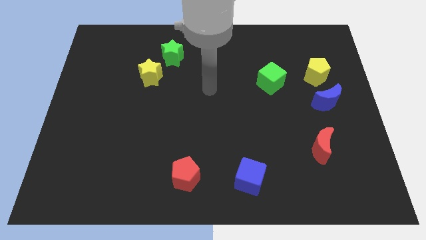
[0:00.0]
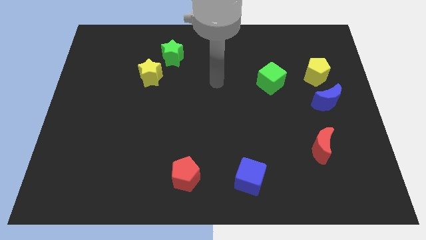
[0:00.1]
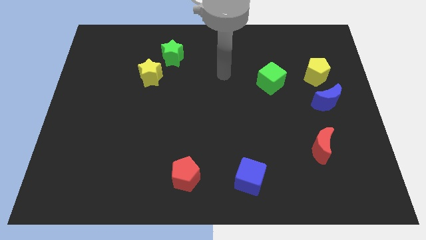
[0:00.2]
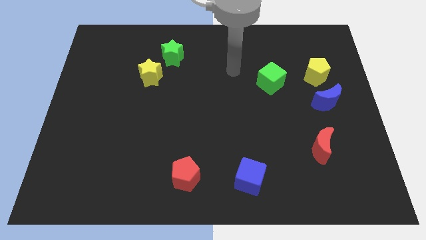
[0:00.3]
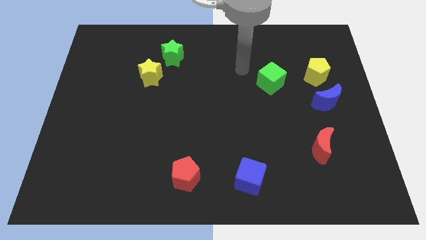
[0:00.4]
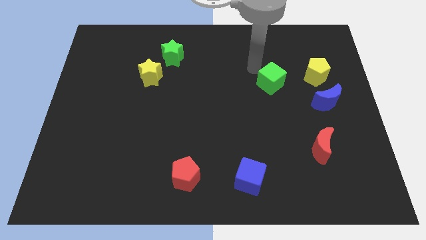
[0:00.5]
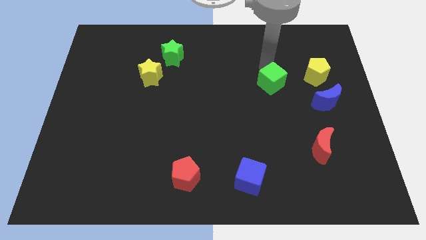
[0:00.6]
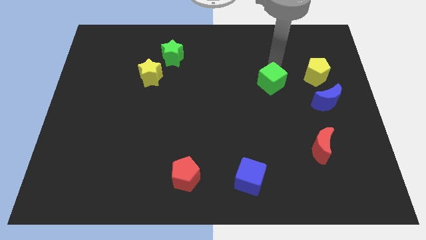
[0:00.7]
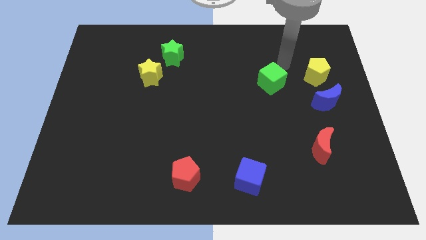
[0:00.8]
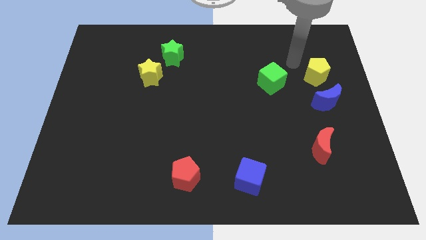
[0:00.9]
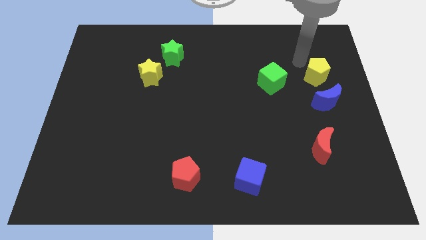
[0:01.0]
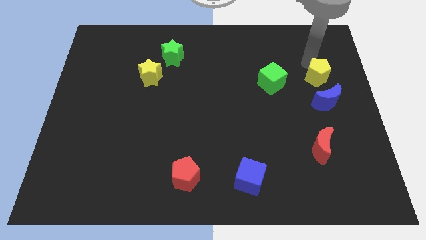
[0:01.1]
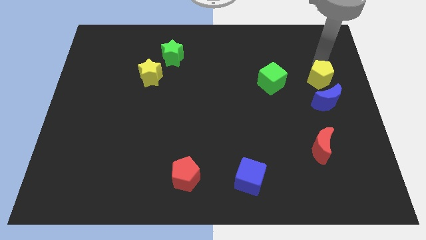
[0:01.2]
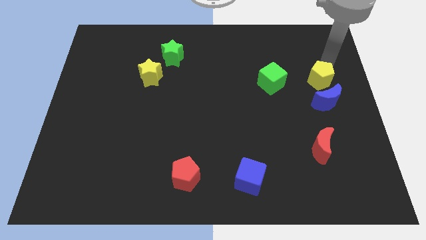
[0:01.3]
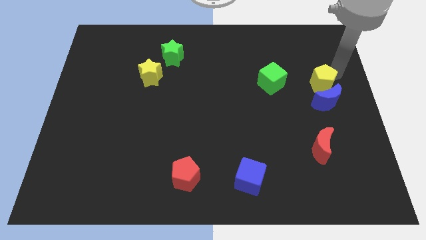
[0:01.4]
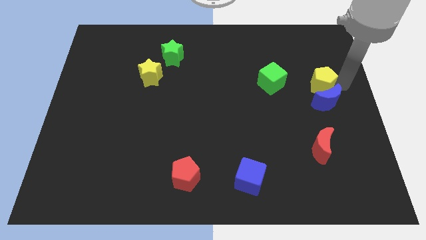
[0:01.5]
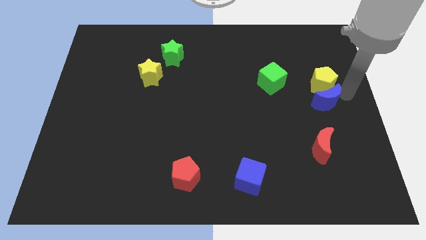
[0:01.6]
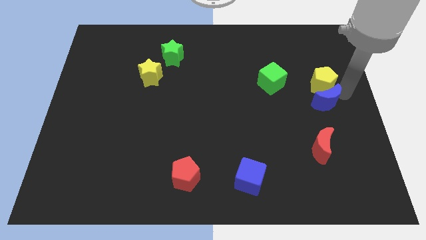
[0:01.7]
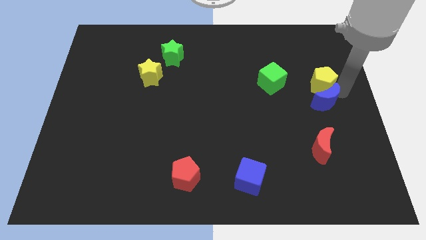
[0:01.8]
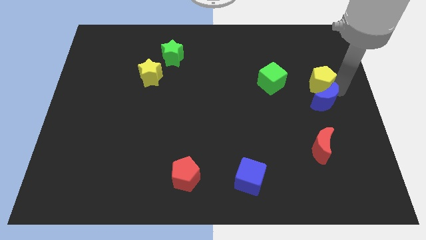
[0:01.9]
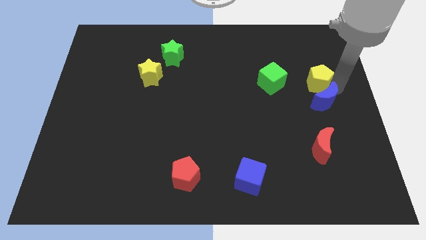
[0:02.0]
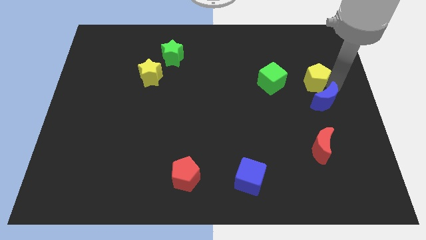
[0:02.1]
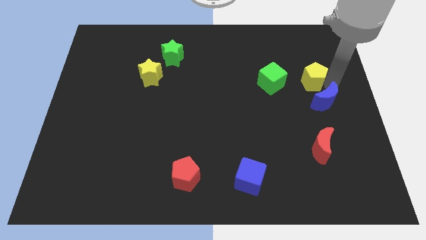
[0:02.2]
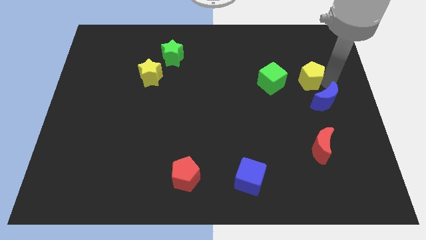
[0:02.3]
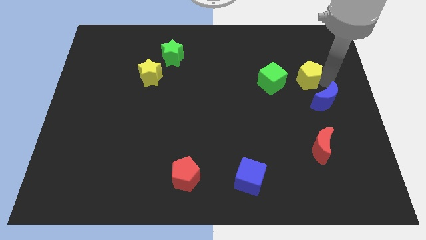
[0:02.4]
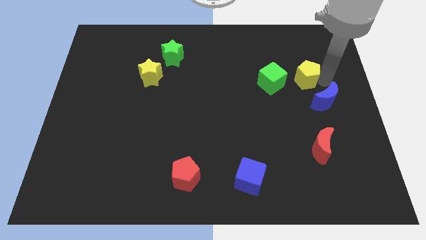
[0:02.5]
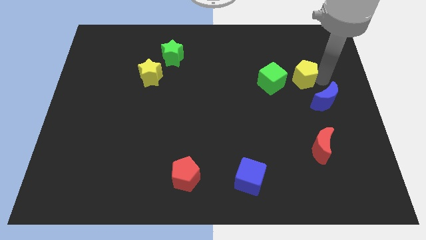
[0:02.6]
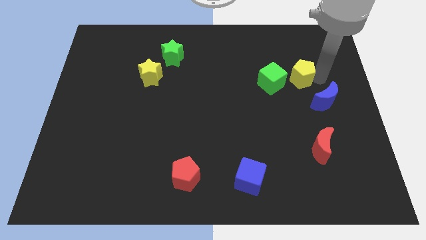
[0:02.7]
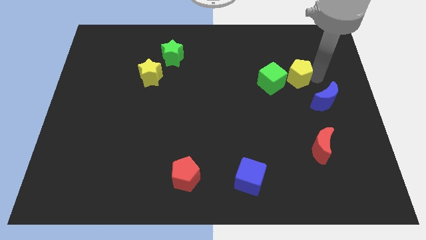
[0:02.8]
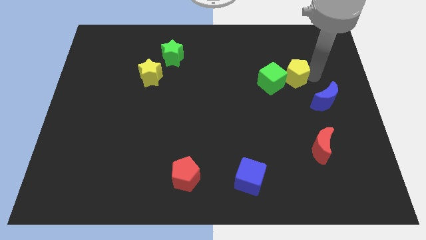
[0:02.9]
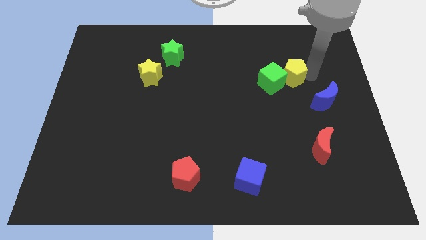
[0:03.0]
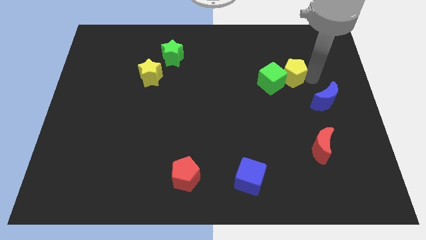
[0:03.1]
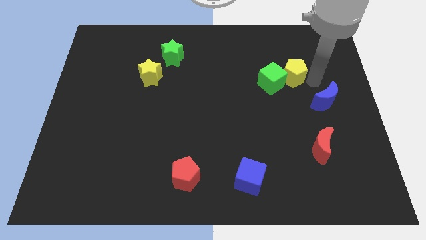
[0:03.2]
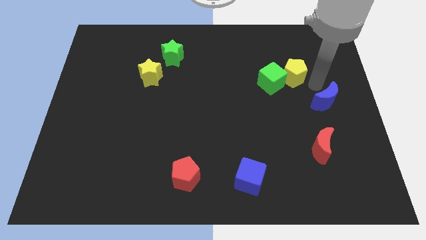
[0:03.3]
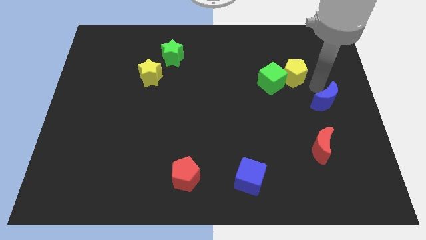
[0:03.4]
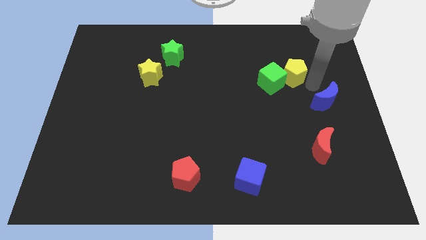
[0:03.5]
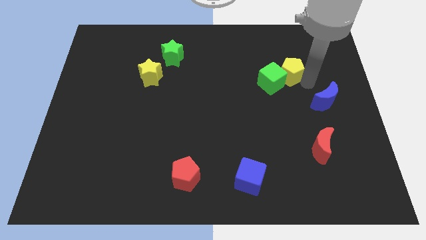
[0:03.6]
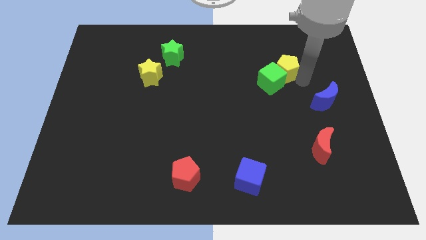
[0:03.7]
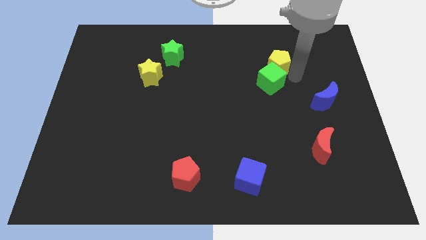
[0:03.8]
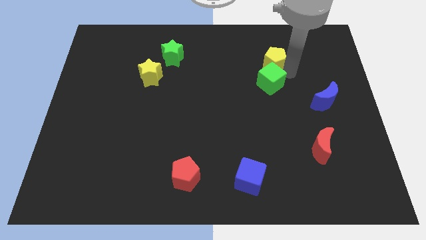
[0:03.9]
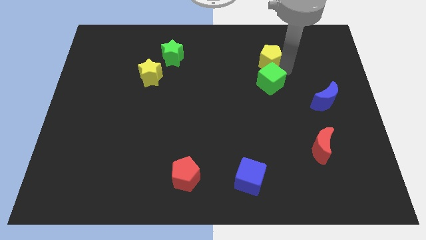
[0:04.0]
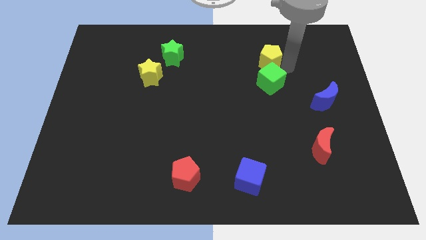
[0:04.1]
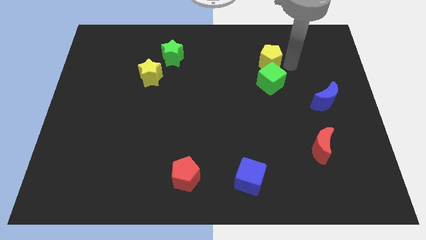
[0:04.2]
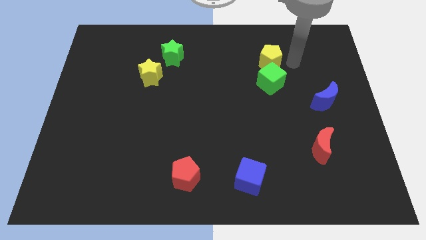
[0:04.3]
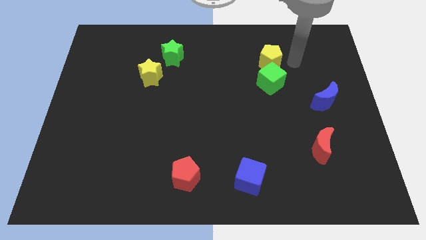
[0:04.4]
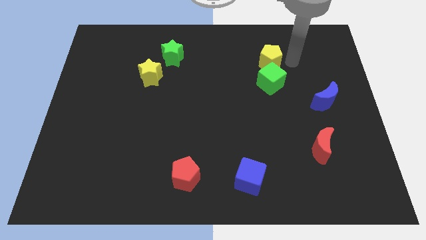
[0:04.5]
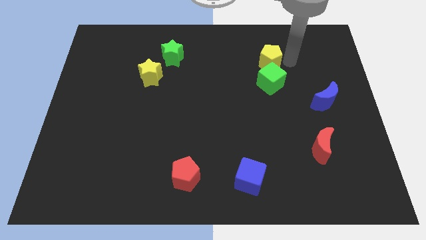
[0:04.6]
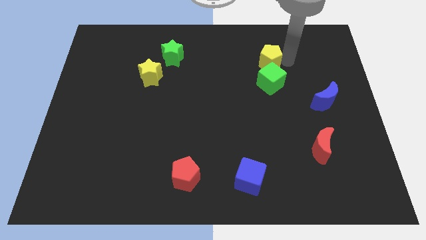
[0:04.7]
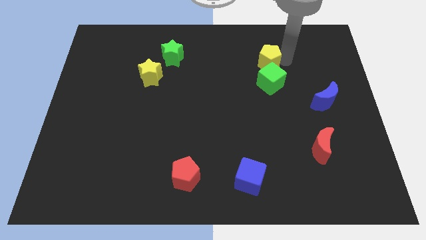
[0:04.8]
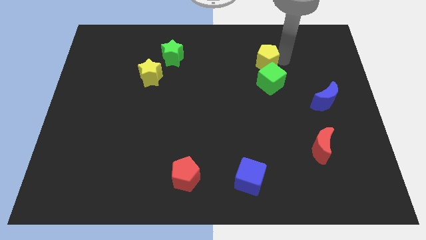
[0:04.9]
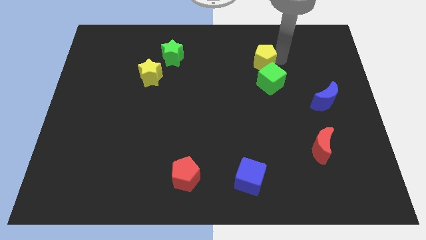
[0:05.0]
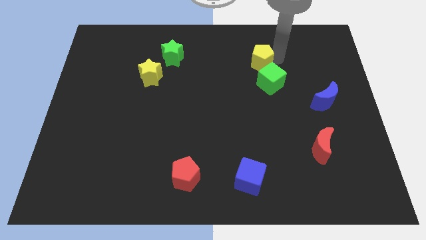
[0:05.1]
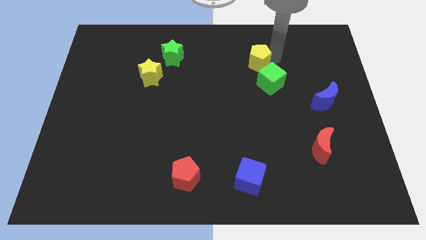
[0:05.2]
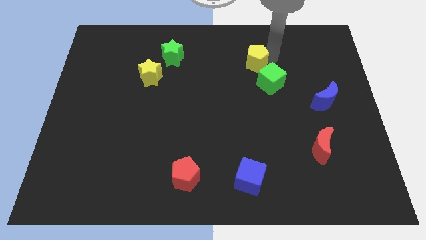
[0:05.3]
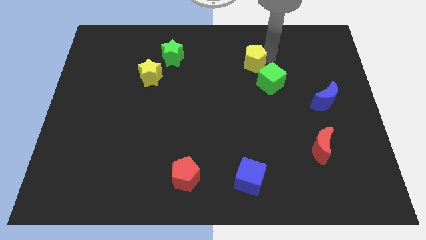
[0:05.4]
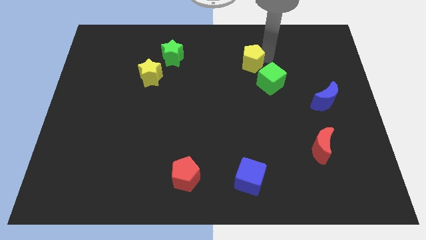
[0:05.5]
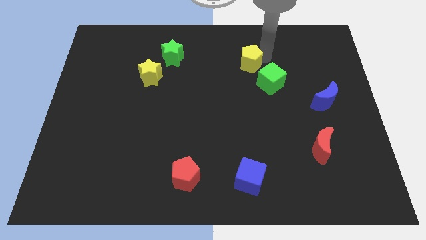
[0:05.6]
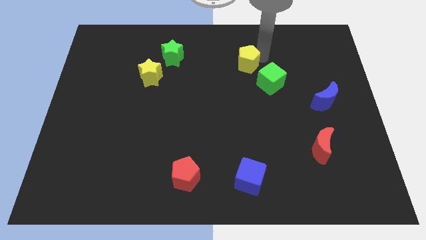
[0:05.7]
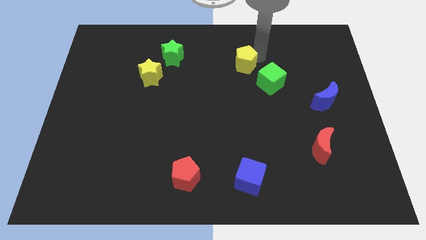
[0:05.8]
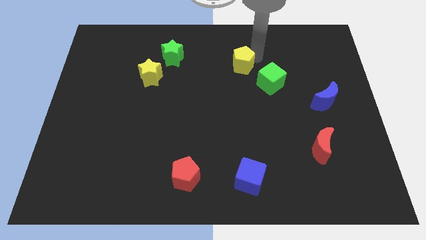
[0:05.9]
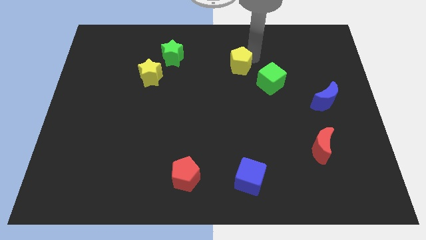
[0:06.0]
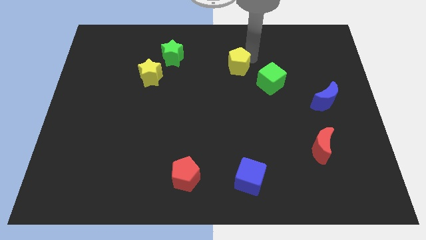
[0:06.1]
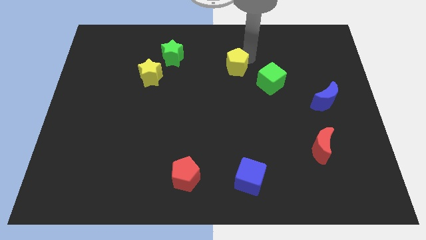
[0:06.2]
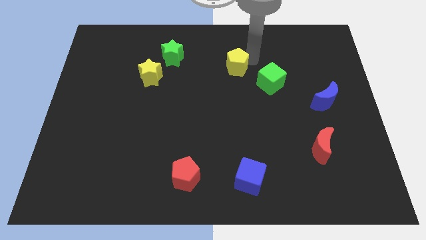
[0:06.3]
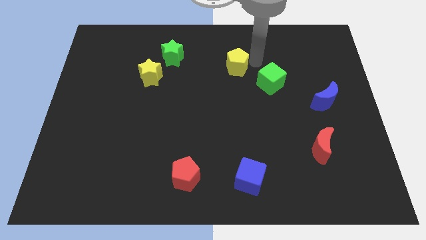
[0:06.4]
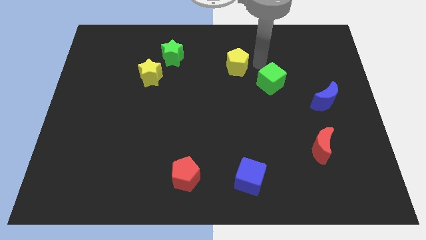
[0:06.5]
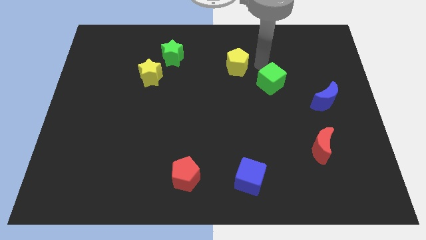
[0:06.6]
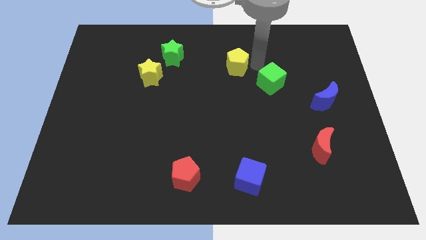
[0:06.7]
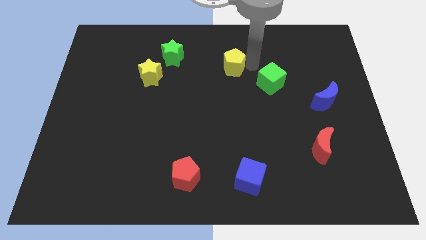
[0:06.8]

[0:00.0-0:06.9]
move the yellow pentagon to the left

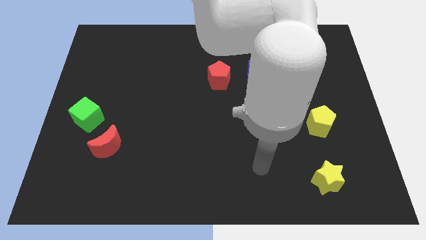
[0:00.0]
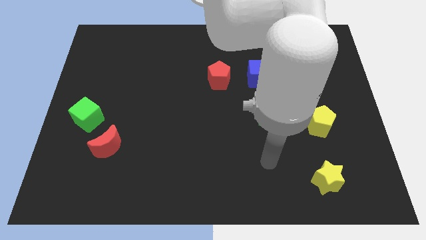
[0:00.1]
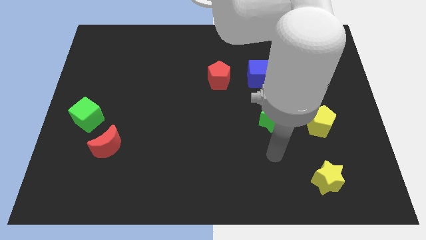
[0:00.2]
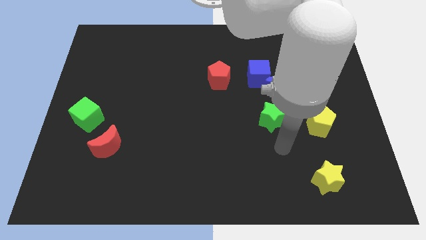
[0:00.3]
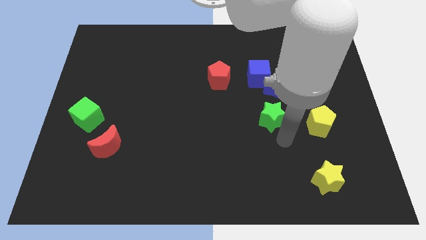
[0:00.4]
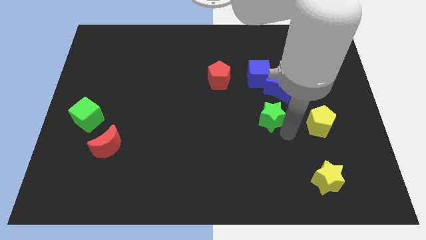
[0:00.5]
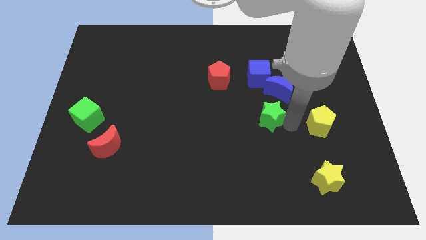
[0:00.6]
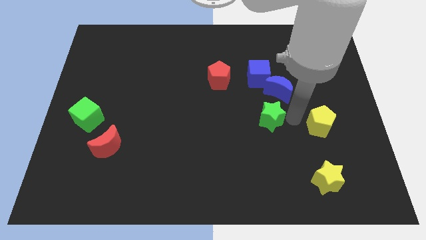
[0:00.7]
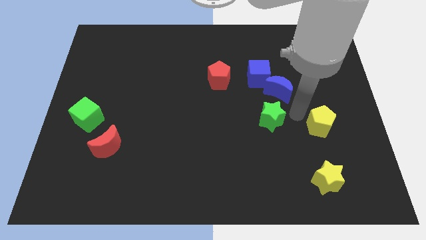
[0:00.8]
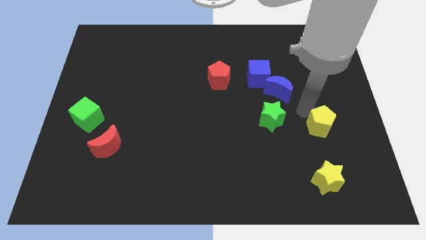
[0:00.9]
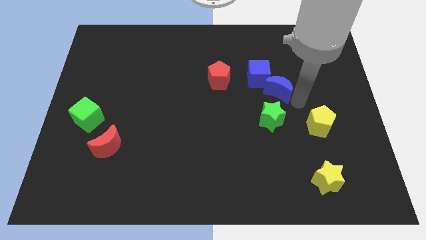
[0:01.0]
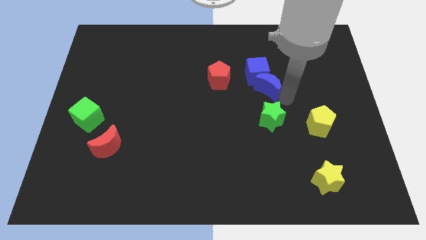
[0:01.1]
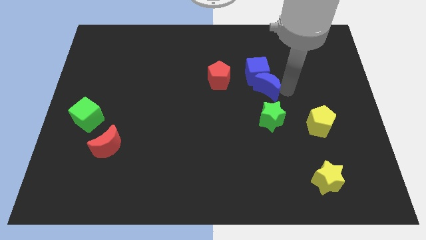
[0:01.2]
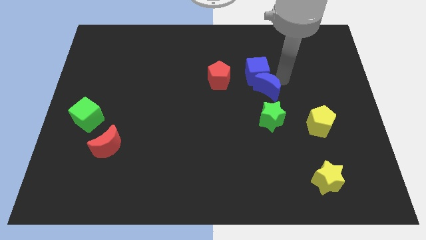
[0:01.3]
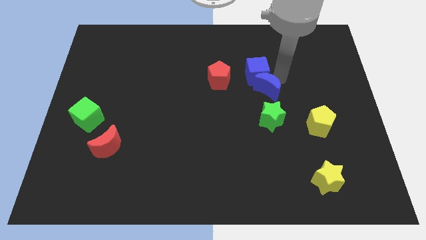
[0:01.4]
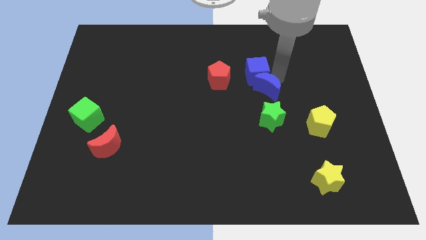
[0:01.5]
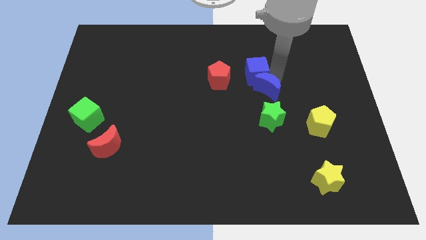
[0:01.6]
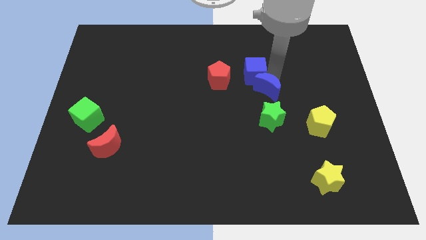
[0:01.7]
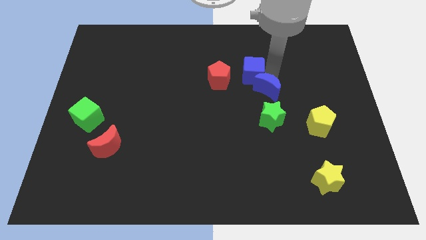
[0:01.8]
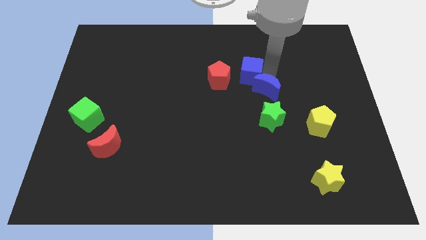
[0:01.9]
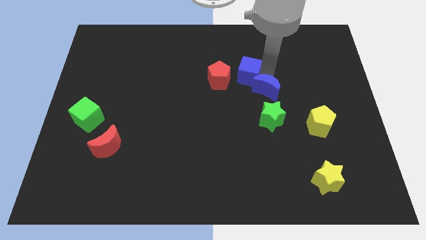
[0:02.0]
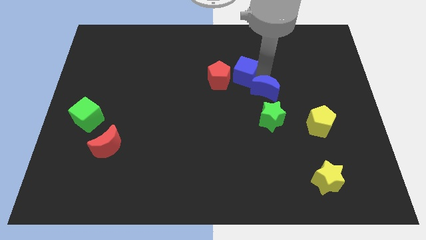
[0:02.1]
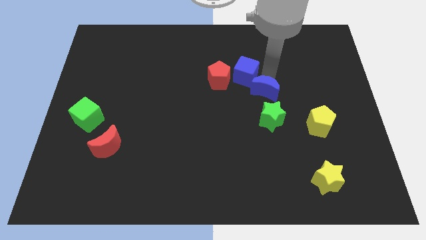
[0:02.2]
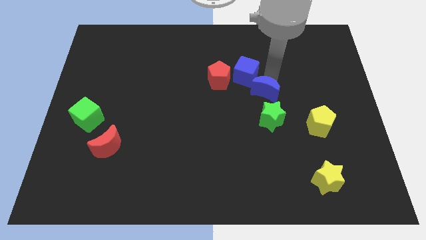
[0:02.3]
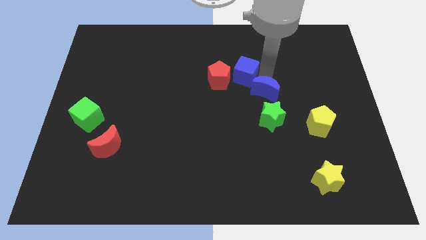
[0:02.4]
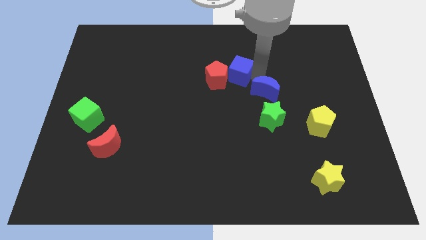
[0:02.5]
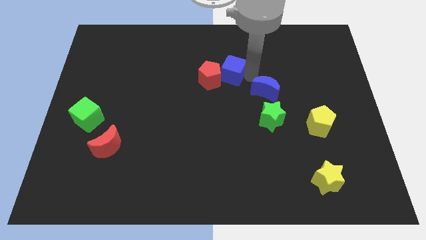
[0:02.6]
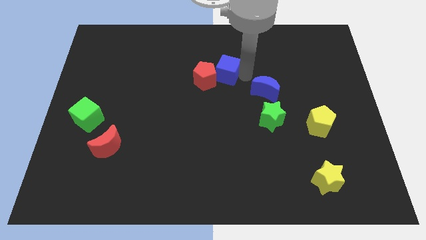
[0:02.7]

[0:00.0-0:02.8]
slide the blue cube to the left a bit
